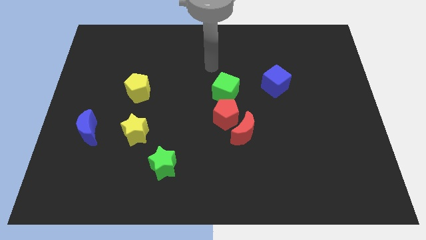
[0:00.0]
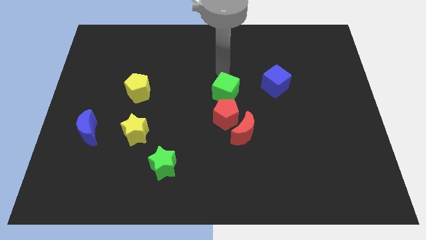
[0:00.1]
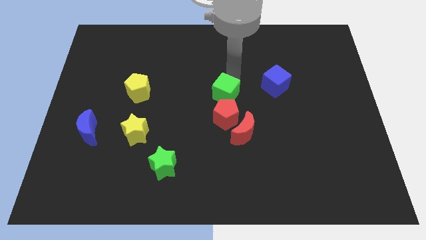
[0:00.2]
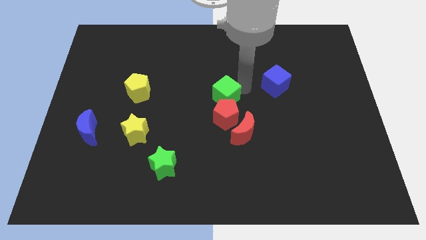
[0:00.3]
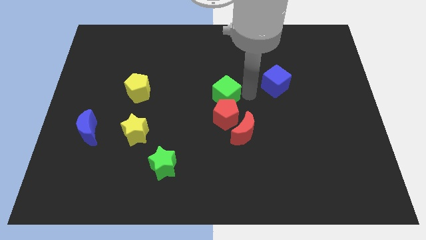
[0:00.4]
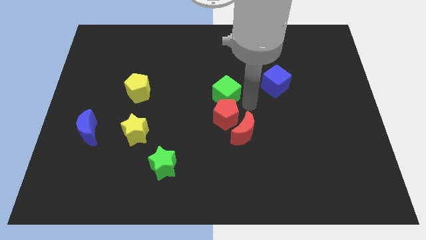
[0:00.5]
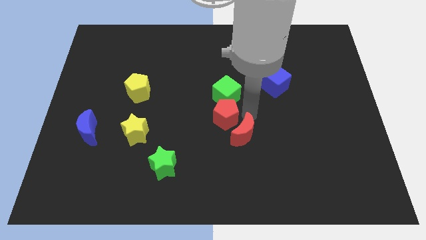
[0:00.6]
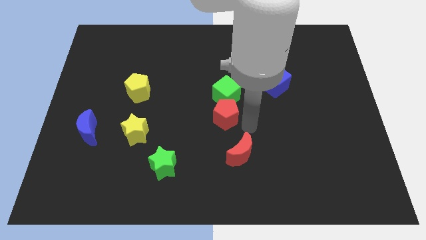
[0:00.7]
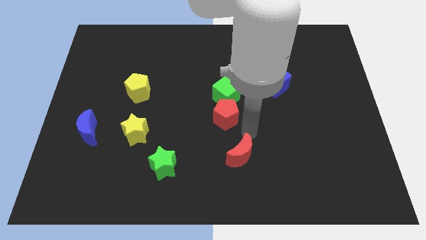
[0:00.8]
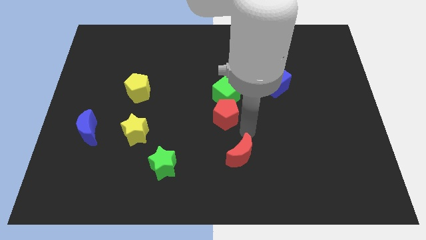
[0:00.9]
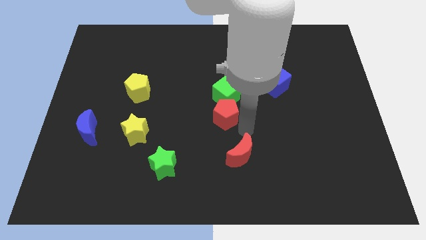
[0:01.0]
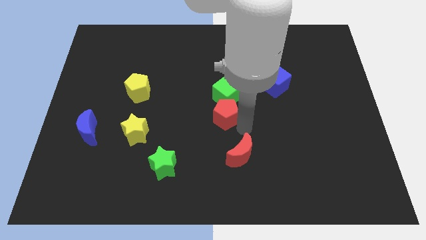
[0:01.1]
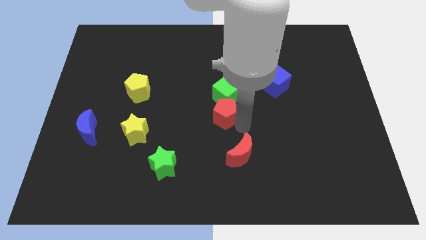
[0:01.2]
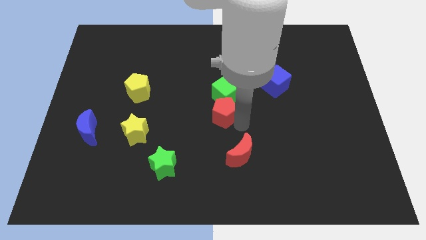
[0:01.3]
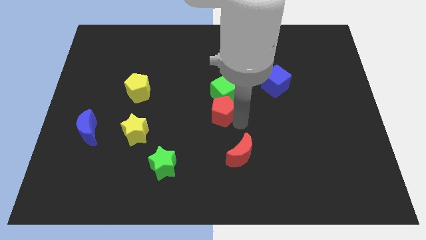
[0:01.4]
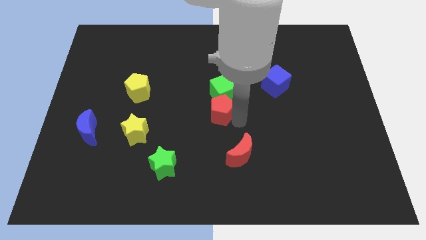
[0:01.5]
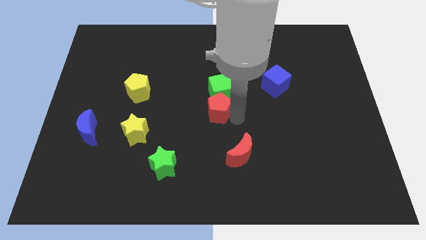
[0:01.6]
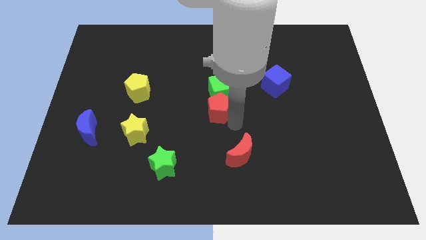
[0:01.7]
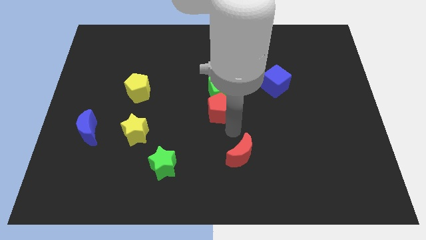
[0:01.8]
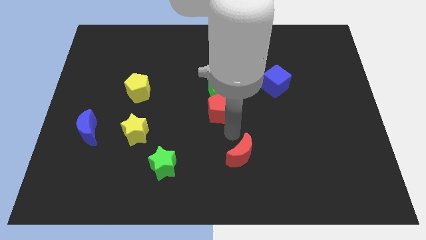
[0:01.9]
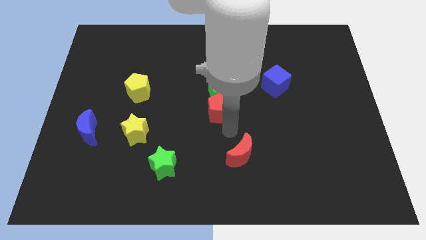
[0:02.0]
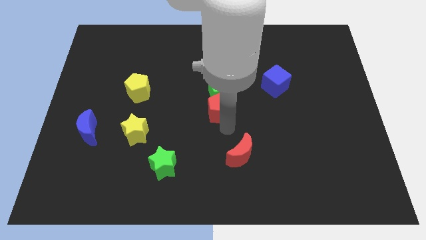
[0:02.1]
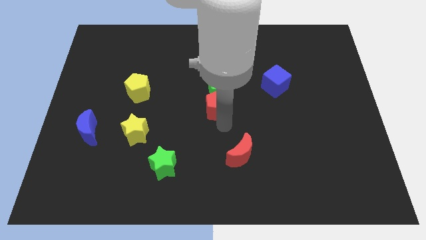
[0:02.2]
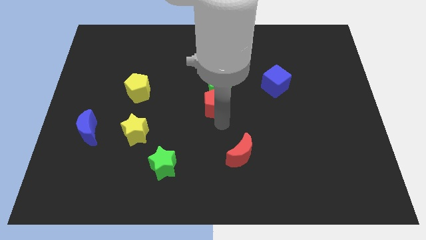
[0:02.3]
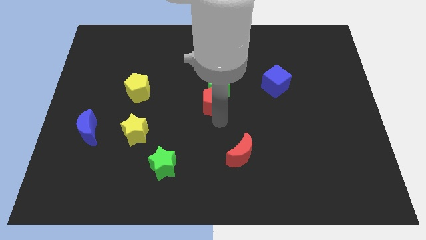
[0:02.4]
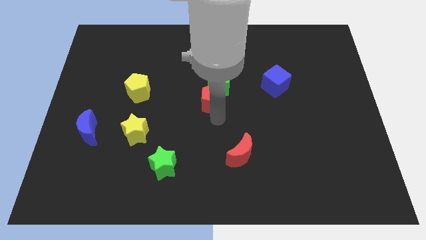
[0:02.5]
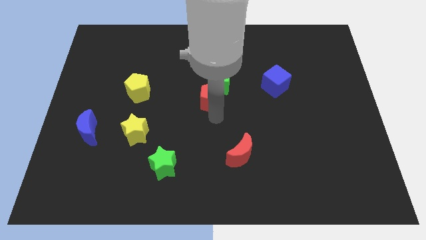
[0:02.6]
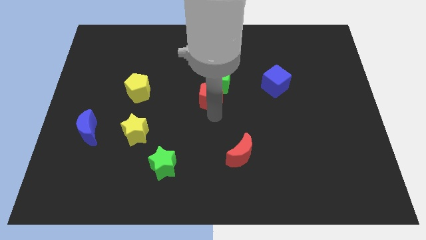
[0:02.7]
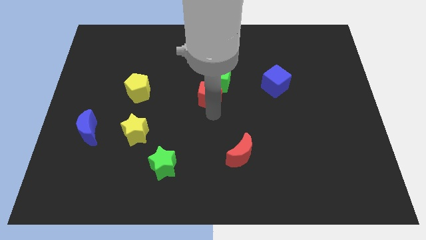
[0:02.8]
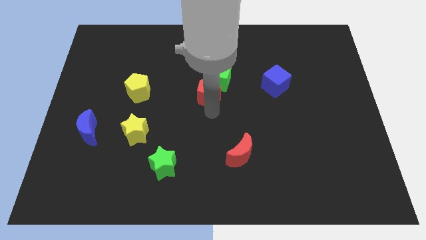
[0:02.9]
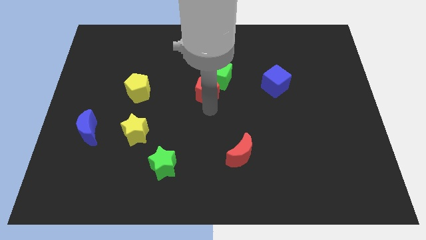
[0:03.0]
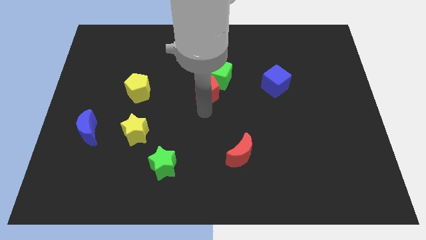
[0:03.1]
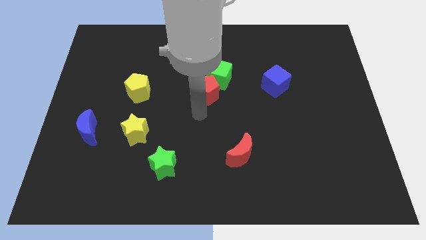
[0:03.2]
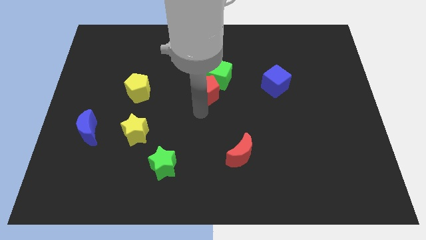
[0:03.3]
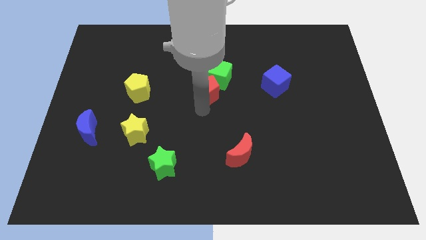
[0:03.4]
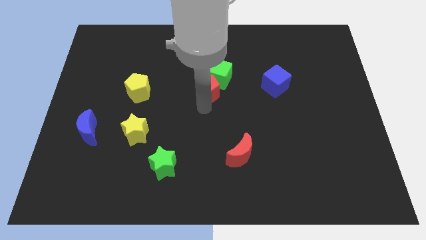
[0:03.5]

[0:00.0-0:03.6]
slightly move the red pentagon up

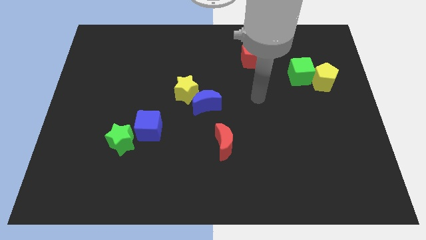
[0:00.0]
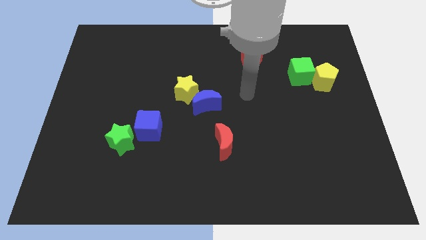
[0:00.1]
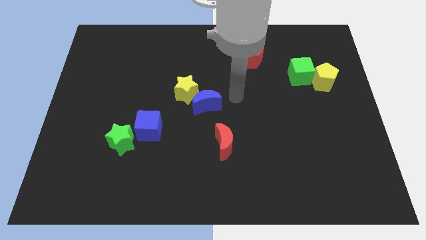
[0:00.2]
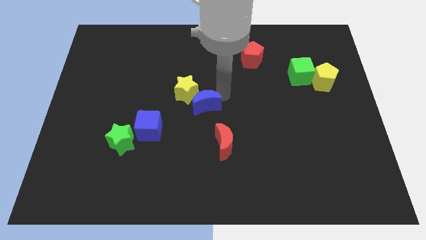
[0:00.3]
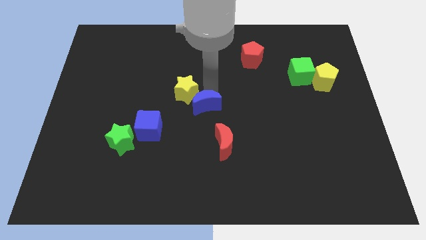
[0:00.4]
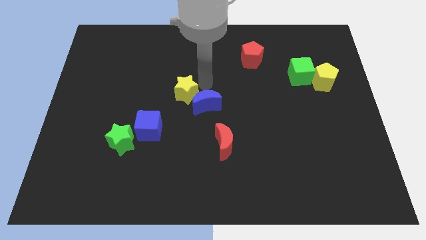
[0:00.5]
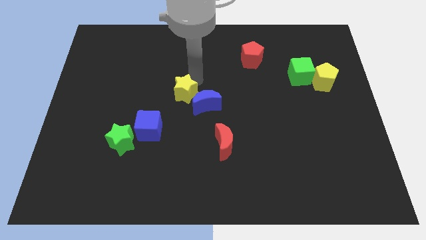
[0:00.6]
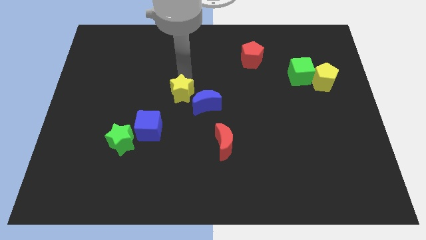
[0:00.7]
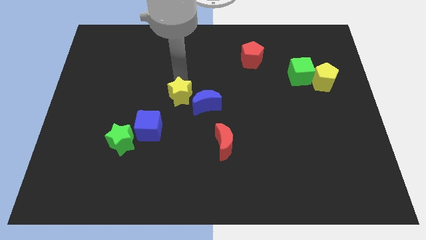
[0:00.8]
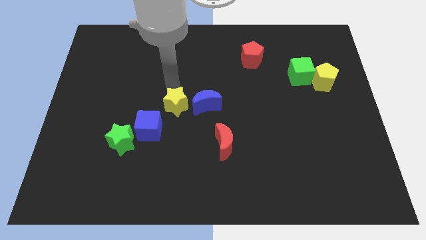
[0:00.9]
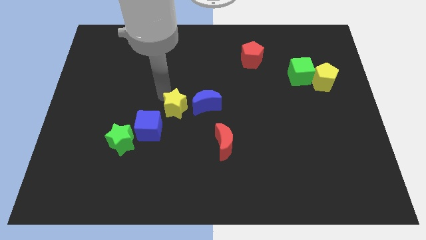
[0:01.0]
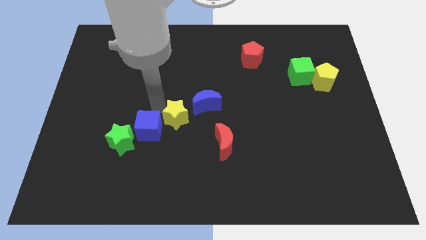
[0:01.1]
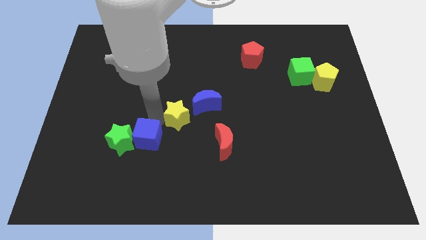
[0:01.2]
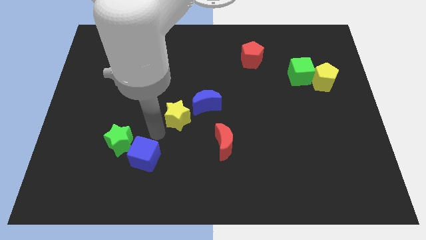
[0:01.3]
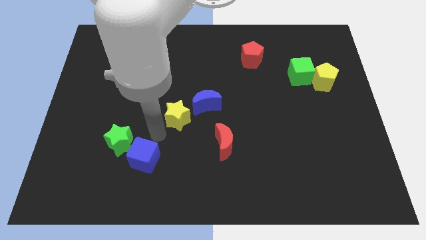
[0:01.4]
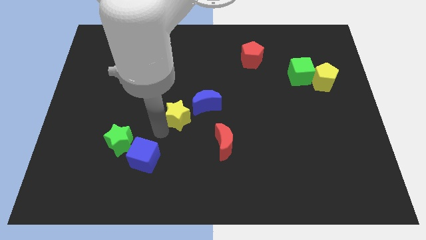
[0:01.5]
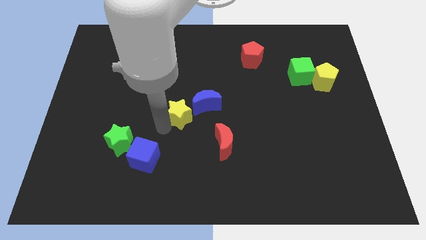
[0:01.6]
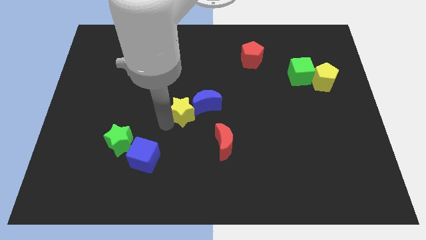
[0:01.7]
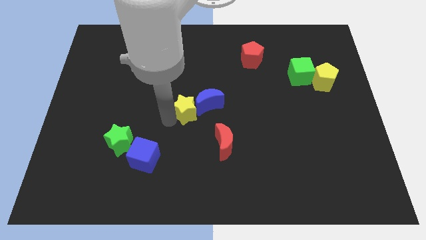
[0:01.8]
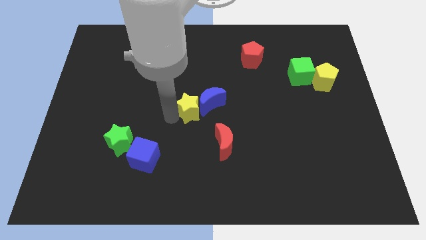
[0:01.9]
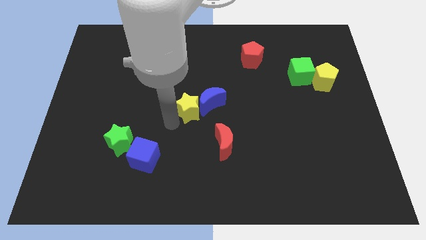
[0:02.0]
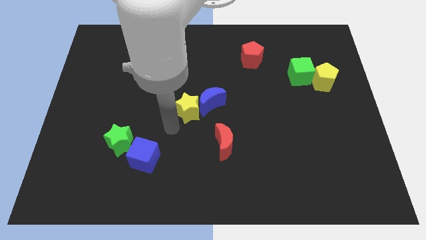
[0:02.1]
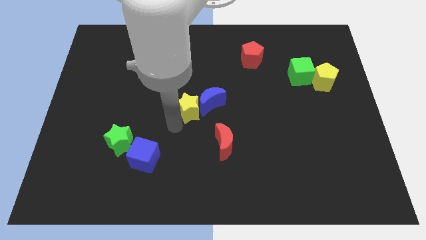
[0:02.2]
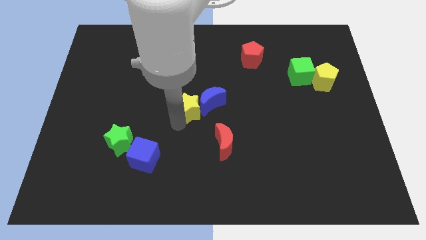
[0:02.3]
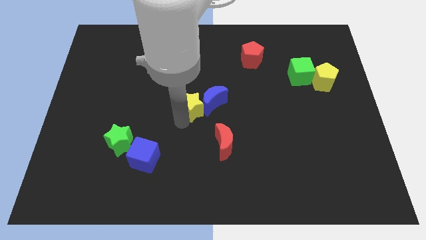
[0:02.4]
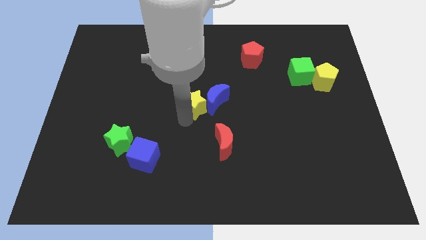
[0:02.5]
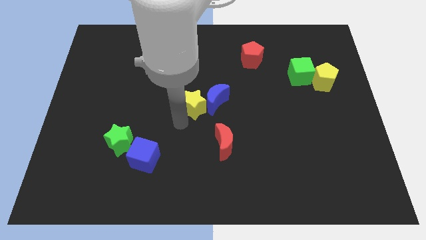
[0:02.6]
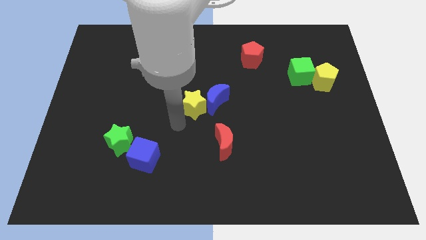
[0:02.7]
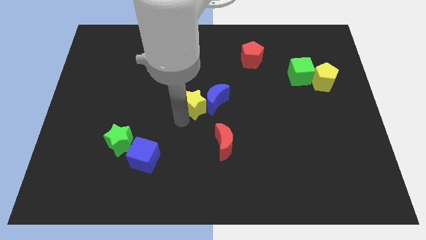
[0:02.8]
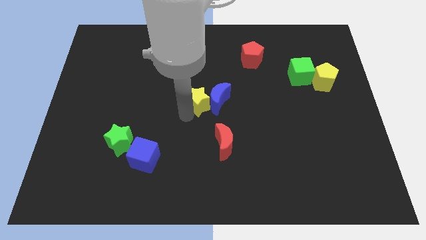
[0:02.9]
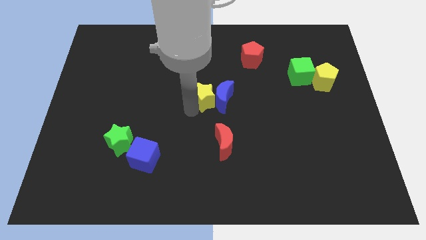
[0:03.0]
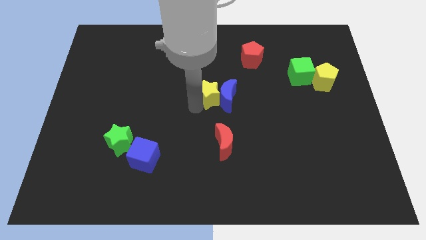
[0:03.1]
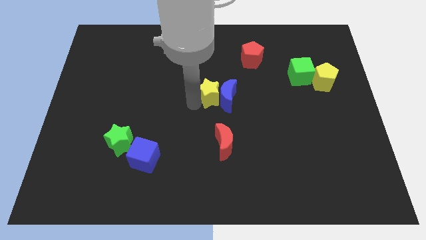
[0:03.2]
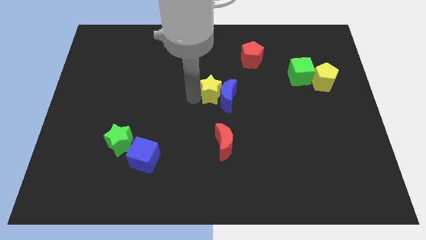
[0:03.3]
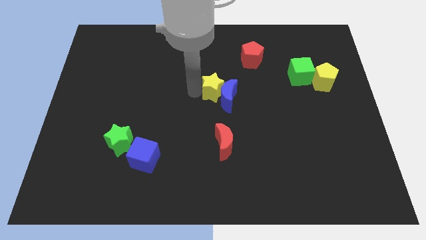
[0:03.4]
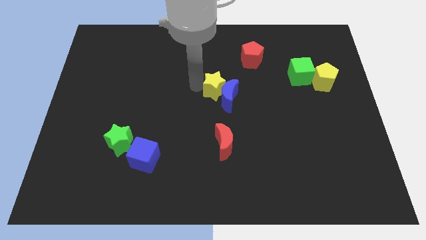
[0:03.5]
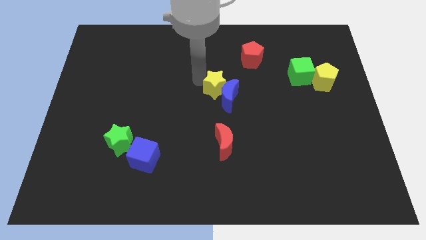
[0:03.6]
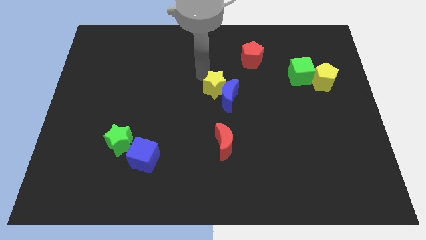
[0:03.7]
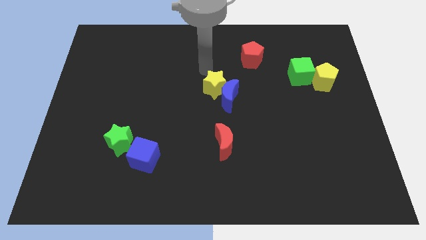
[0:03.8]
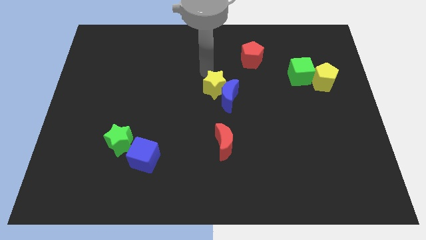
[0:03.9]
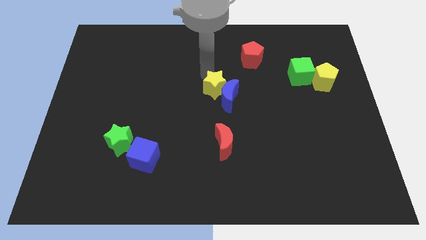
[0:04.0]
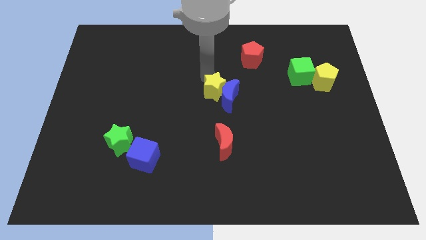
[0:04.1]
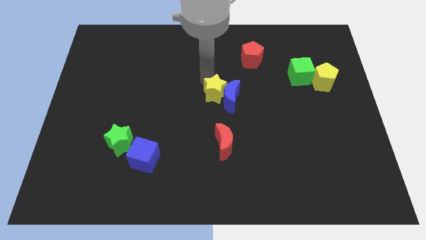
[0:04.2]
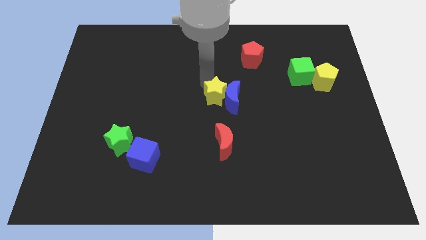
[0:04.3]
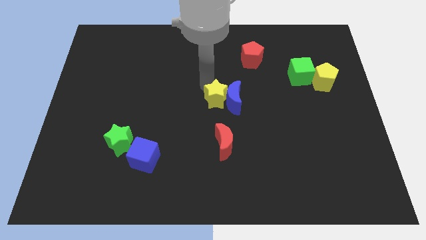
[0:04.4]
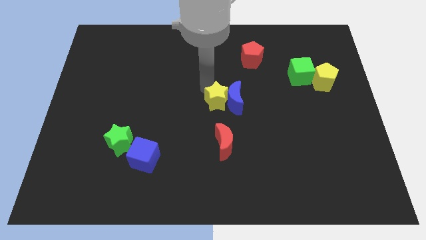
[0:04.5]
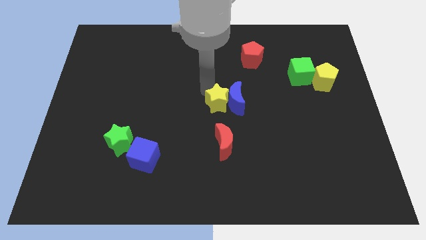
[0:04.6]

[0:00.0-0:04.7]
move the yellow star slightly down and to the right
